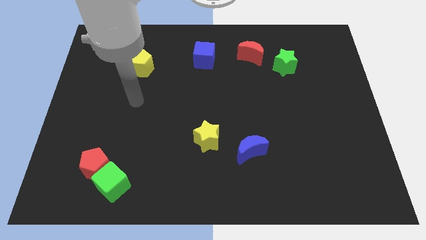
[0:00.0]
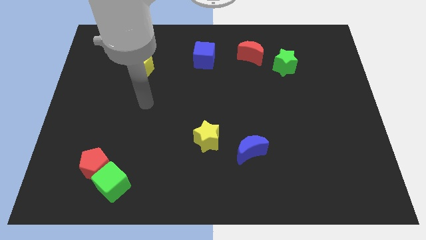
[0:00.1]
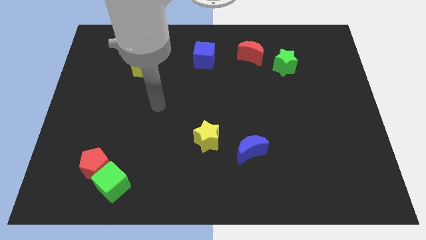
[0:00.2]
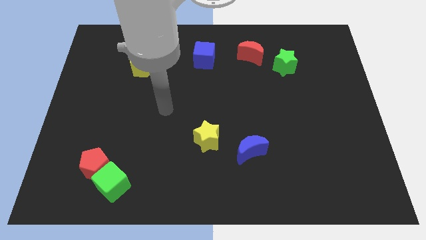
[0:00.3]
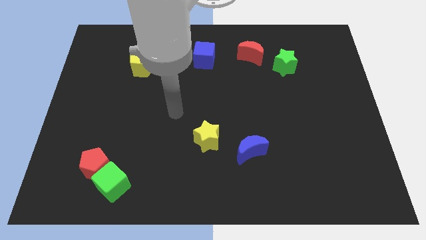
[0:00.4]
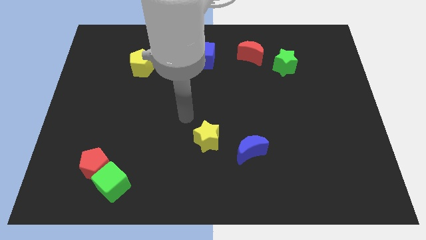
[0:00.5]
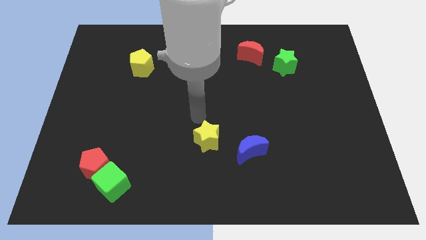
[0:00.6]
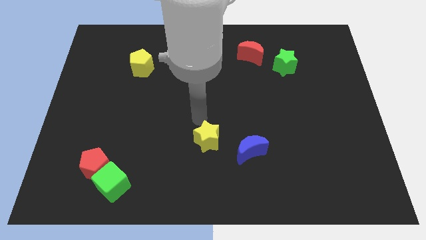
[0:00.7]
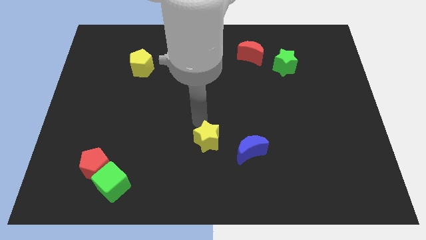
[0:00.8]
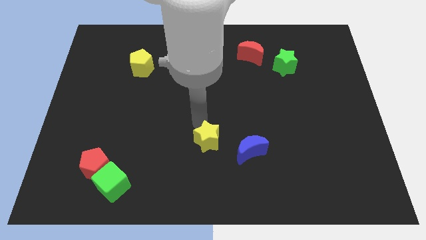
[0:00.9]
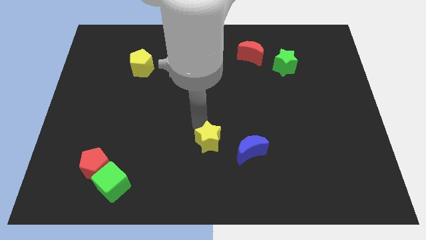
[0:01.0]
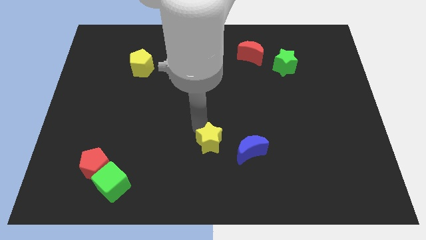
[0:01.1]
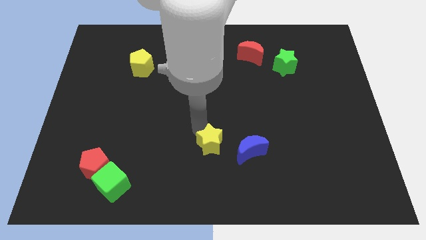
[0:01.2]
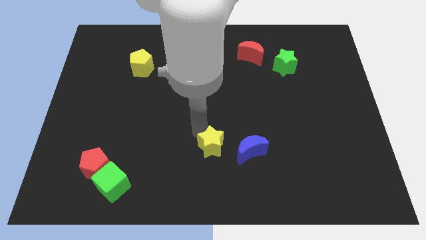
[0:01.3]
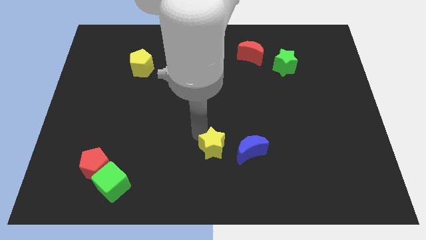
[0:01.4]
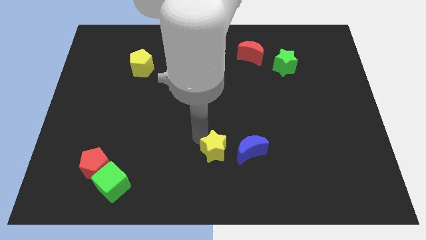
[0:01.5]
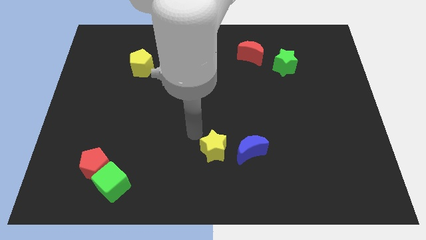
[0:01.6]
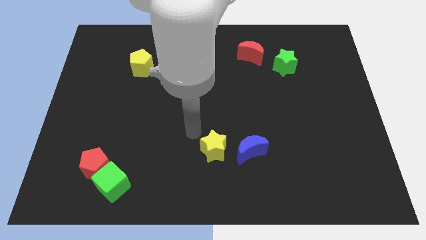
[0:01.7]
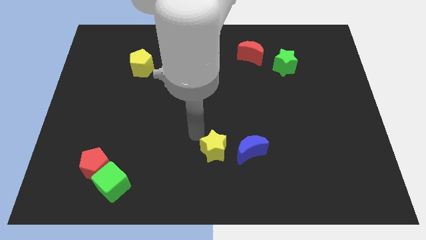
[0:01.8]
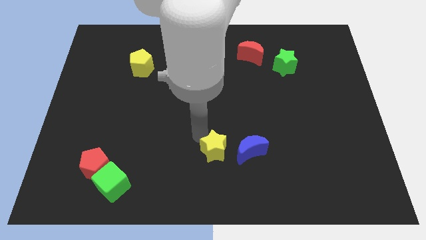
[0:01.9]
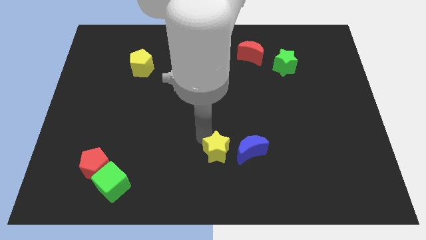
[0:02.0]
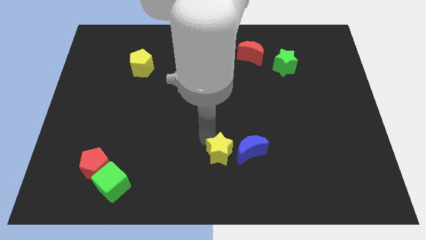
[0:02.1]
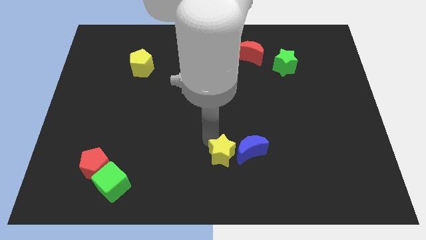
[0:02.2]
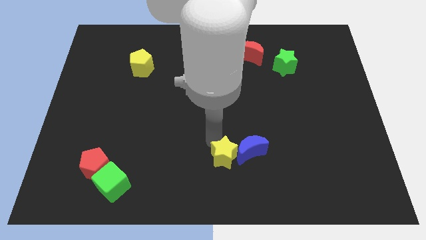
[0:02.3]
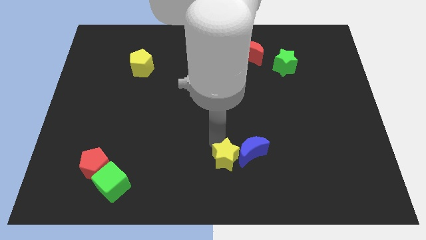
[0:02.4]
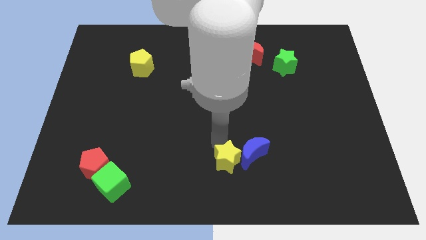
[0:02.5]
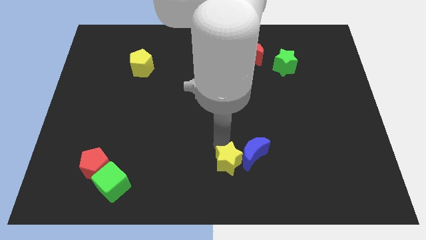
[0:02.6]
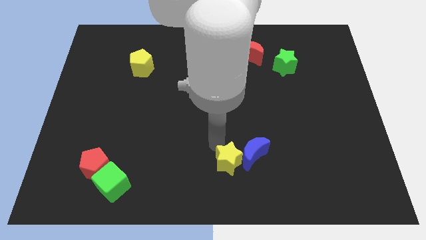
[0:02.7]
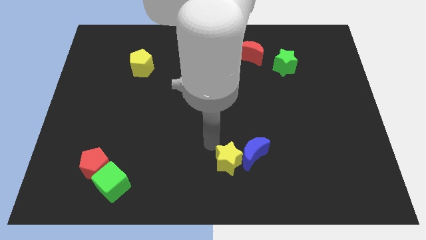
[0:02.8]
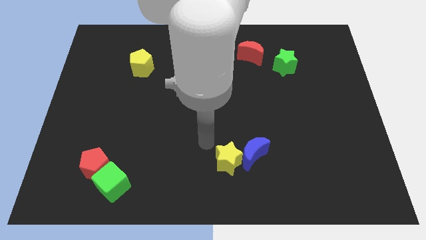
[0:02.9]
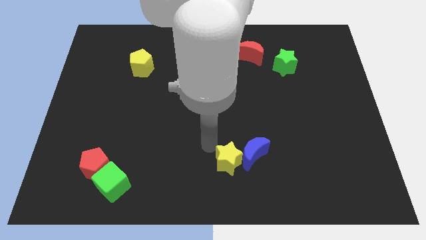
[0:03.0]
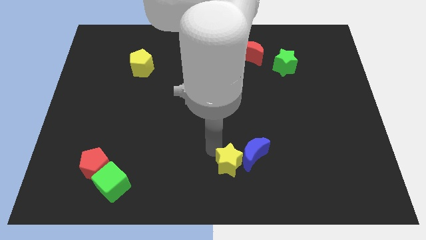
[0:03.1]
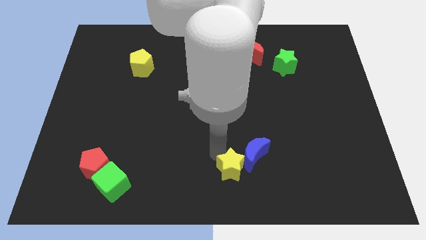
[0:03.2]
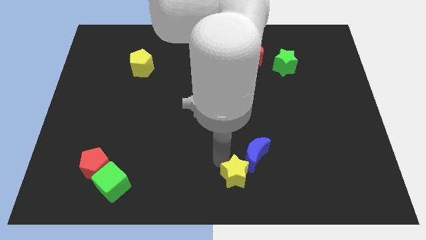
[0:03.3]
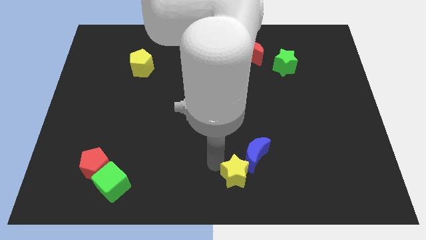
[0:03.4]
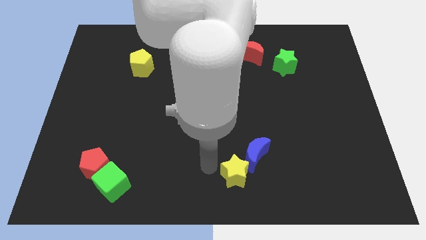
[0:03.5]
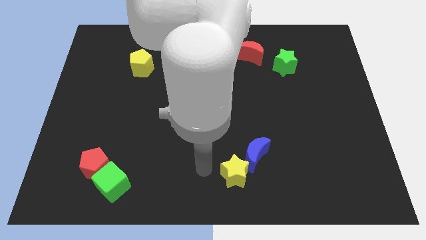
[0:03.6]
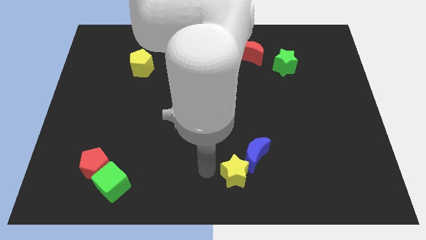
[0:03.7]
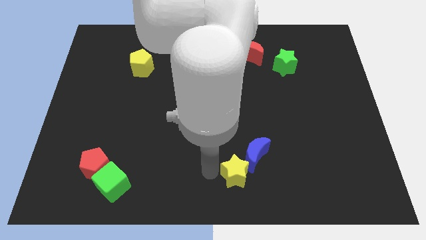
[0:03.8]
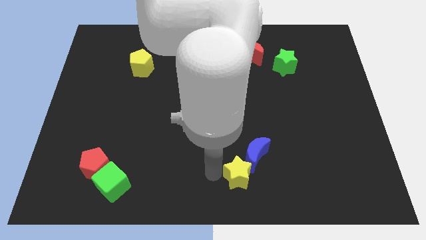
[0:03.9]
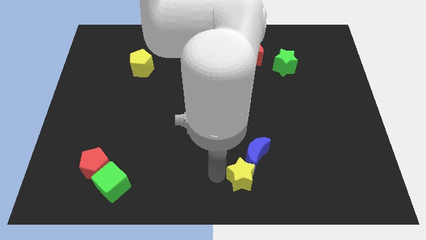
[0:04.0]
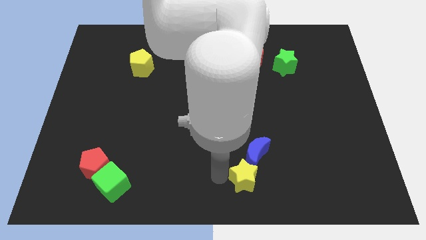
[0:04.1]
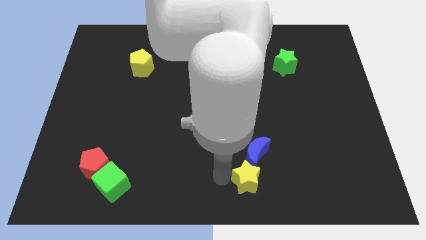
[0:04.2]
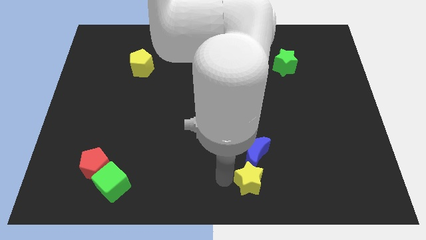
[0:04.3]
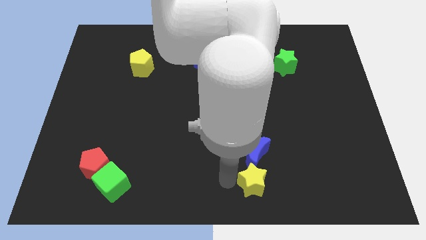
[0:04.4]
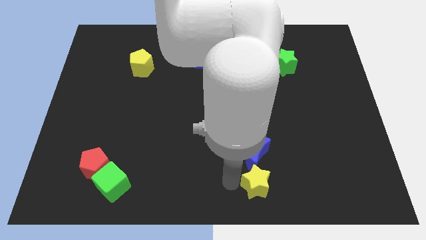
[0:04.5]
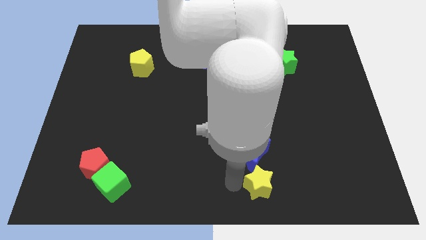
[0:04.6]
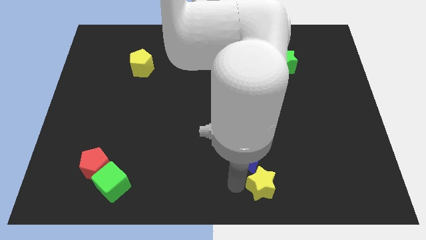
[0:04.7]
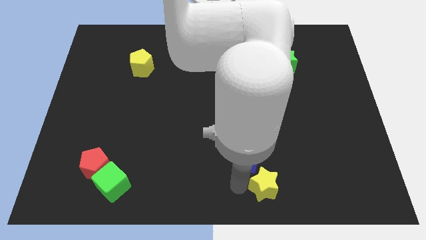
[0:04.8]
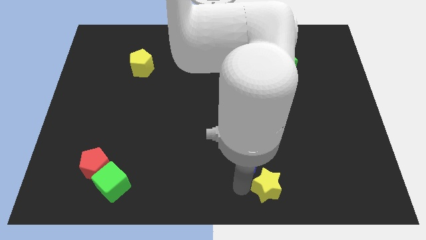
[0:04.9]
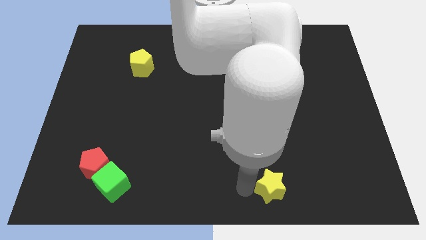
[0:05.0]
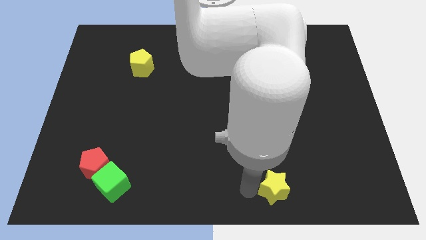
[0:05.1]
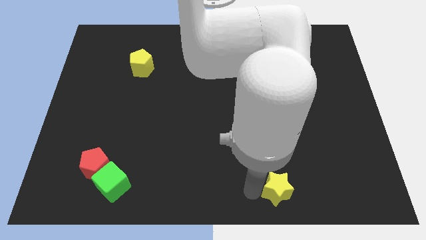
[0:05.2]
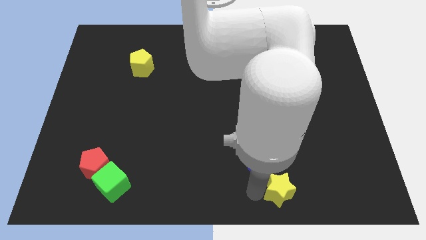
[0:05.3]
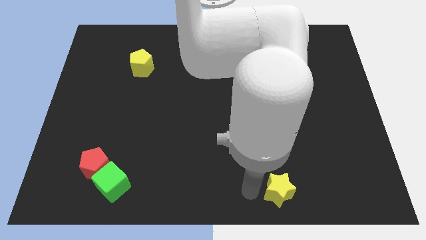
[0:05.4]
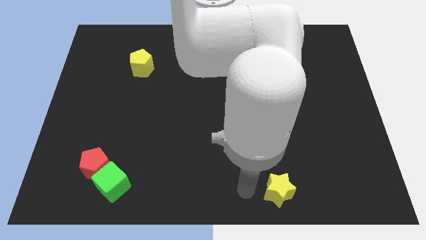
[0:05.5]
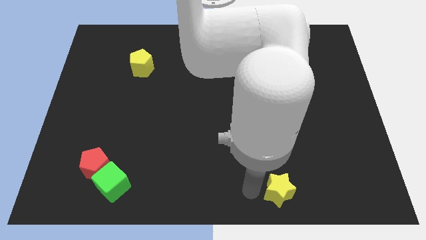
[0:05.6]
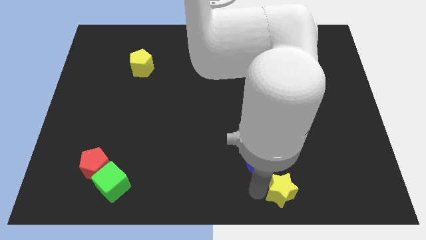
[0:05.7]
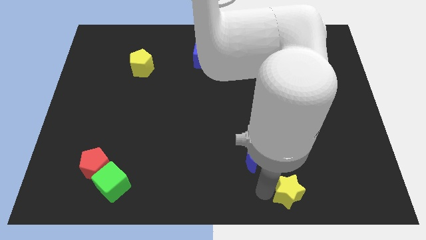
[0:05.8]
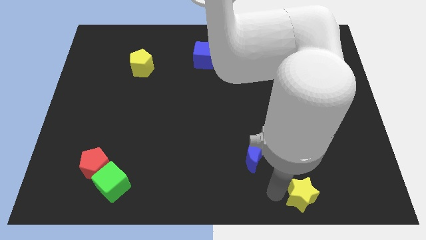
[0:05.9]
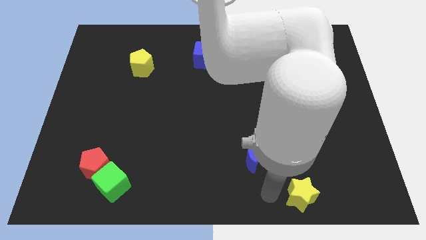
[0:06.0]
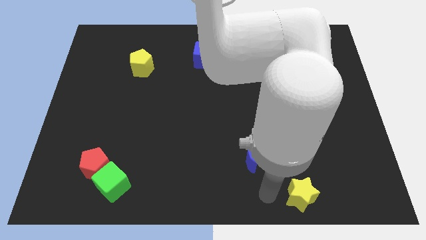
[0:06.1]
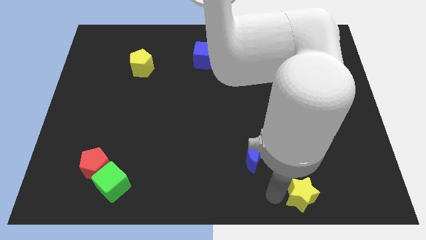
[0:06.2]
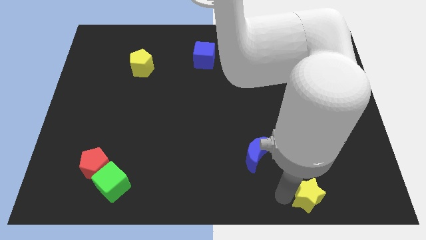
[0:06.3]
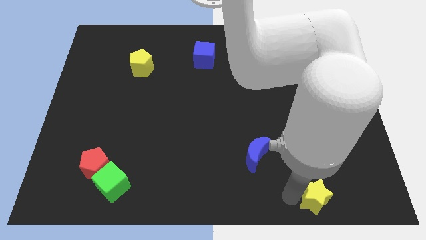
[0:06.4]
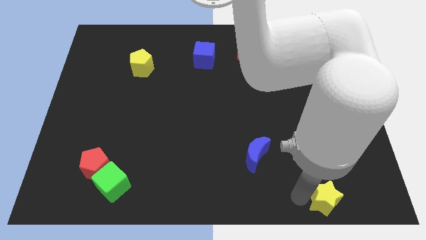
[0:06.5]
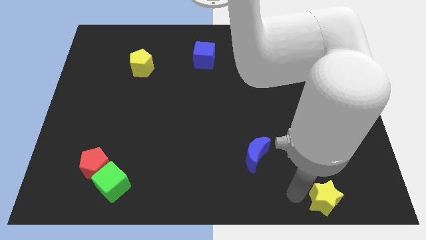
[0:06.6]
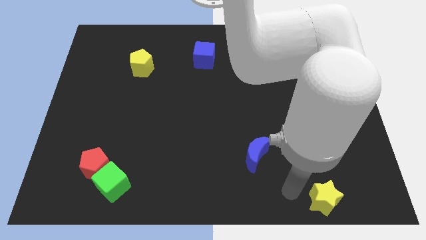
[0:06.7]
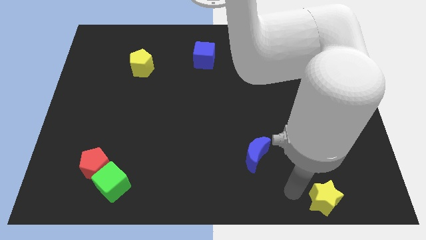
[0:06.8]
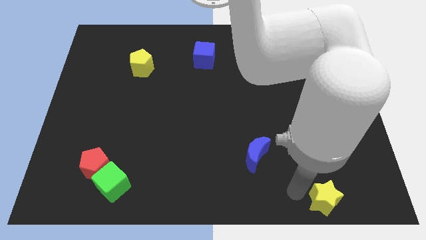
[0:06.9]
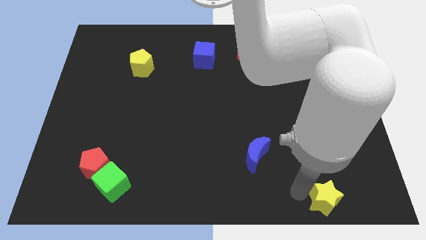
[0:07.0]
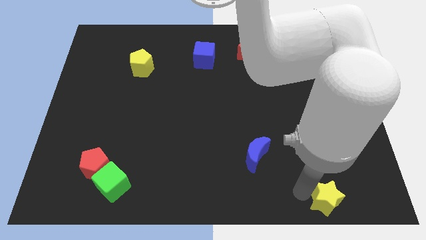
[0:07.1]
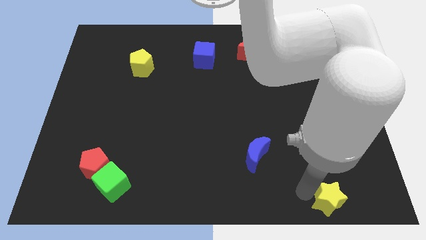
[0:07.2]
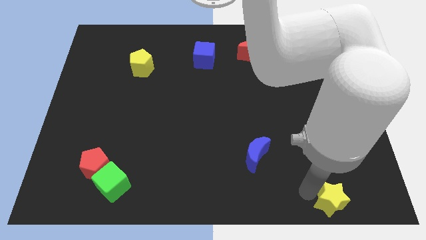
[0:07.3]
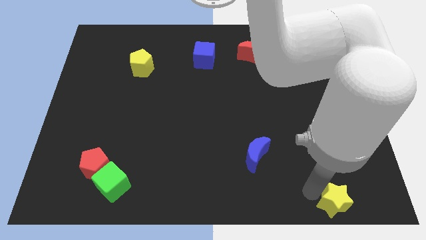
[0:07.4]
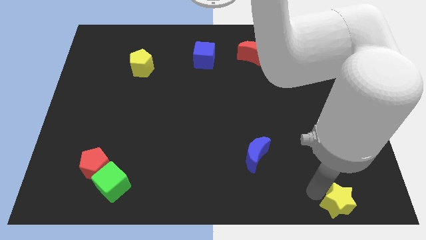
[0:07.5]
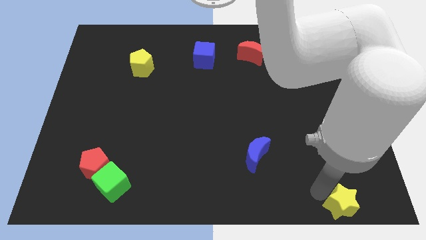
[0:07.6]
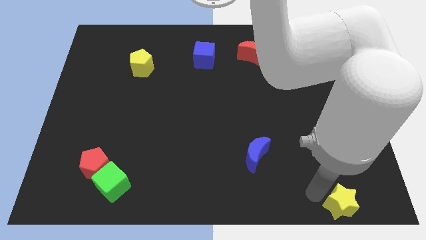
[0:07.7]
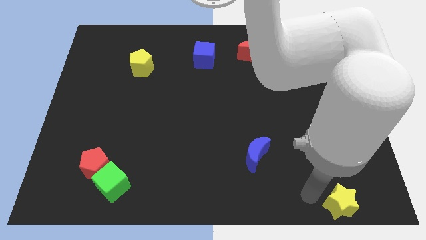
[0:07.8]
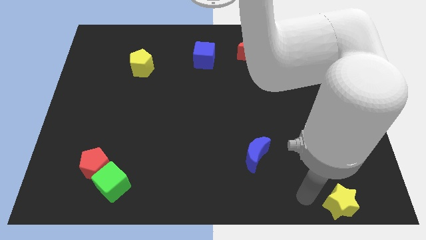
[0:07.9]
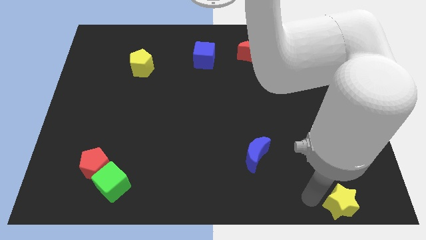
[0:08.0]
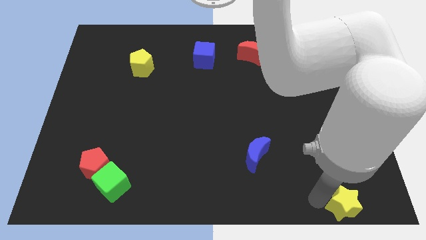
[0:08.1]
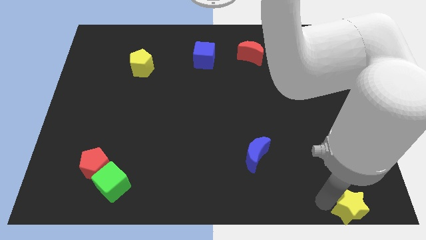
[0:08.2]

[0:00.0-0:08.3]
put the yellow star to the bottom right corner
